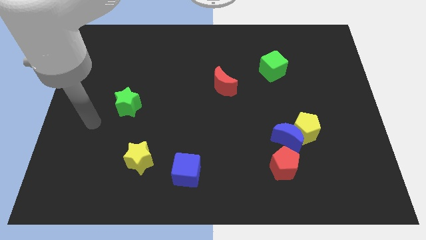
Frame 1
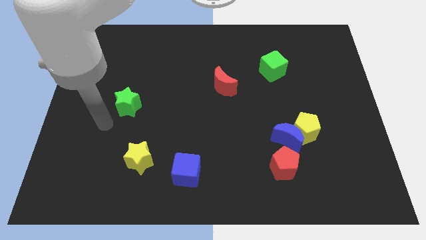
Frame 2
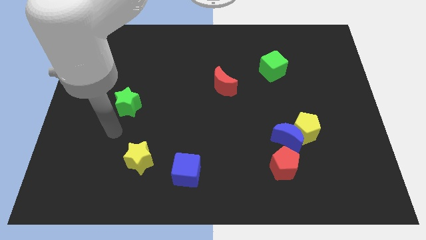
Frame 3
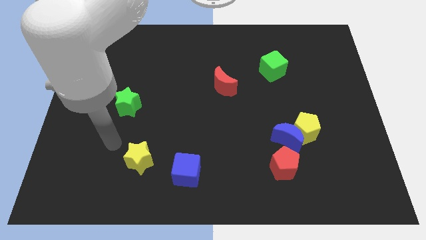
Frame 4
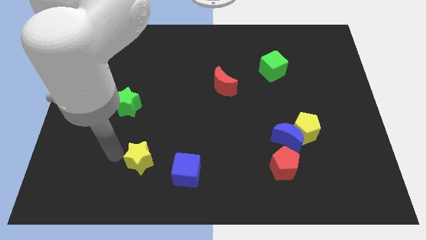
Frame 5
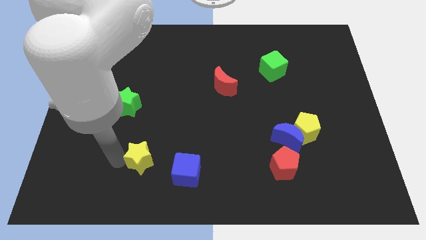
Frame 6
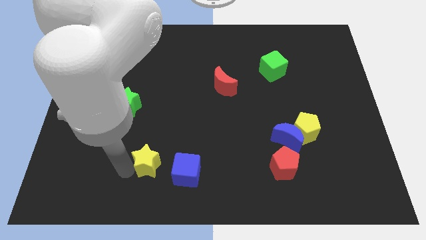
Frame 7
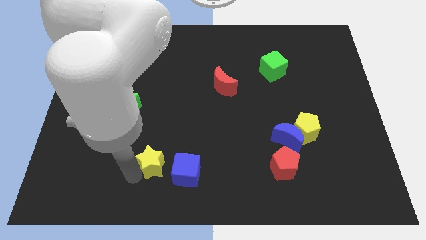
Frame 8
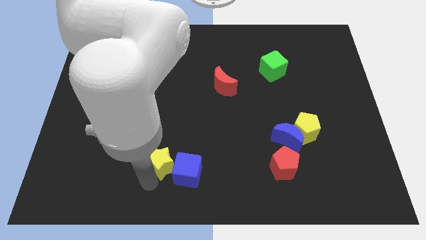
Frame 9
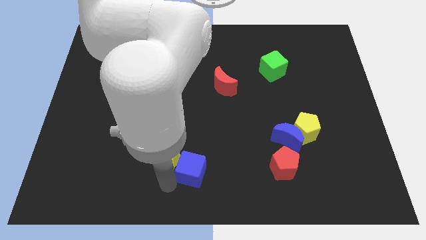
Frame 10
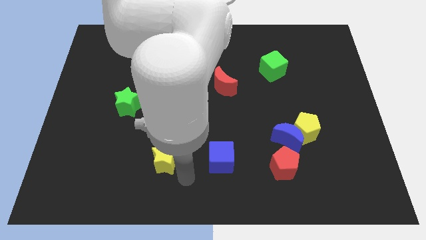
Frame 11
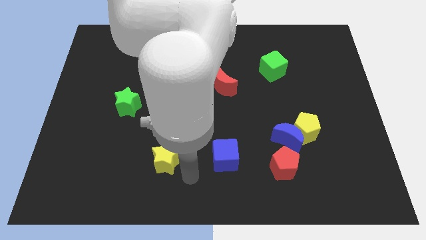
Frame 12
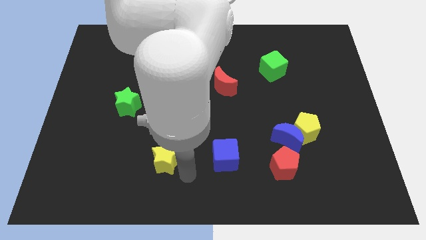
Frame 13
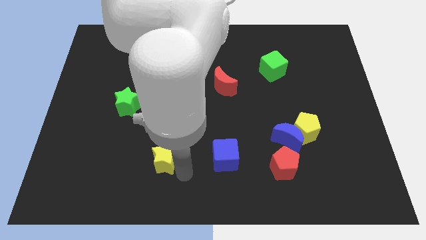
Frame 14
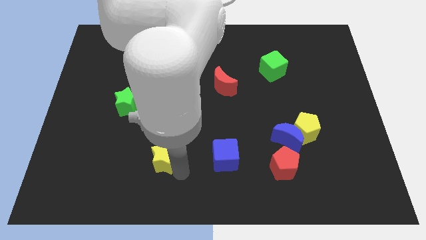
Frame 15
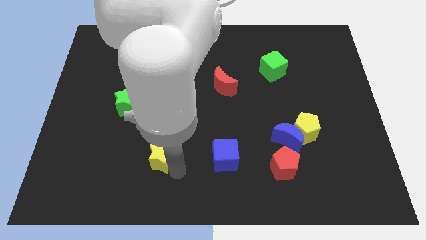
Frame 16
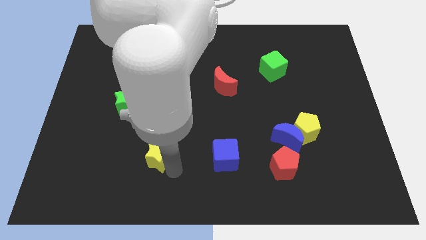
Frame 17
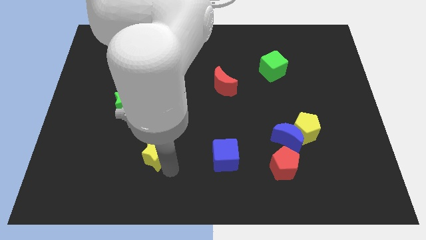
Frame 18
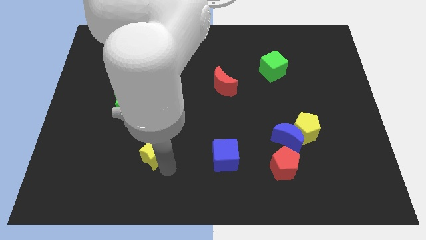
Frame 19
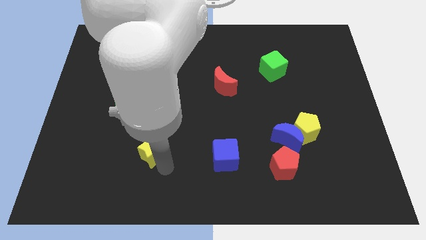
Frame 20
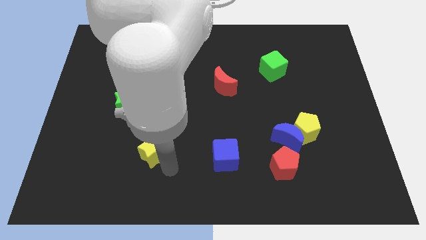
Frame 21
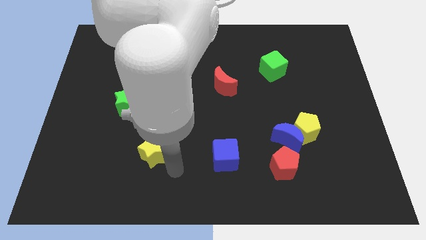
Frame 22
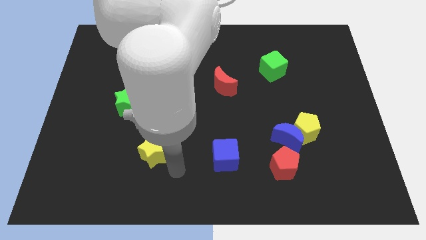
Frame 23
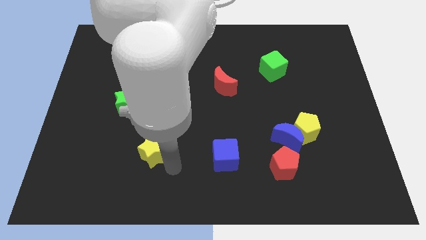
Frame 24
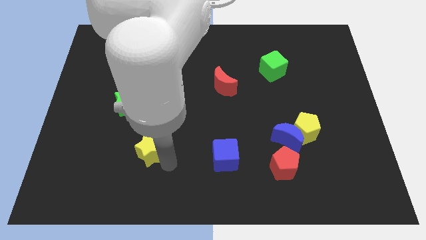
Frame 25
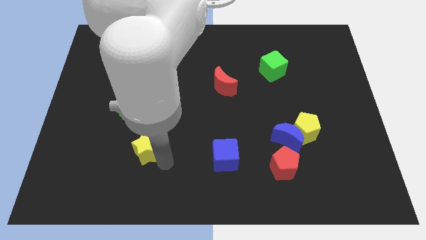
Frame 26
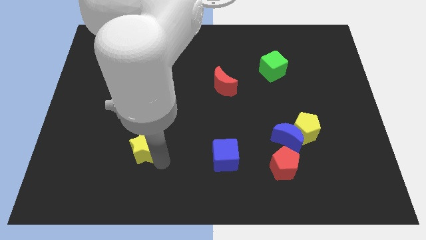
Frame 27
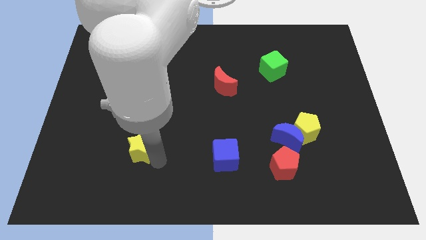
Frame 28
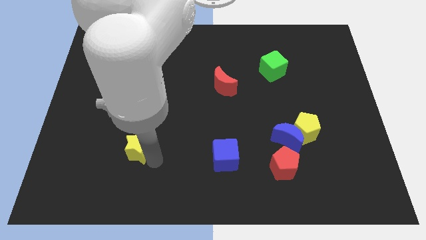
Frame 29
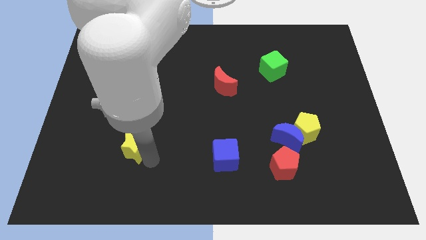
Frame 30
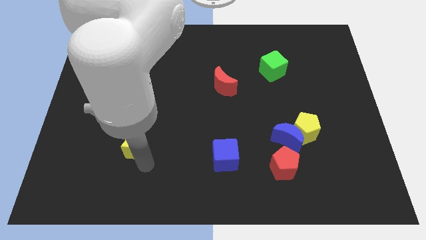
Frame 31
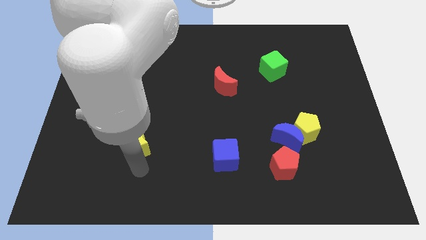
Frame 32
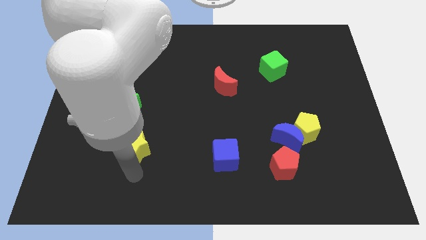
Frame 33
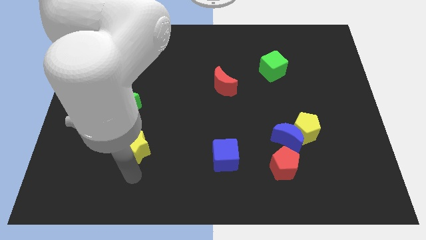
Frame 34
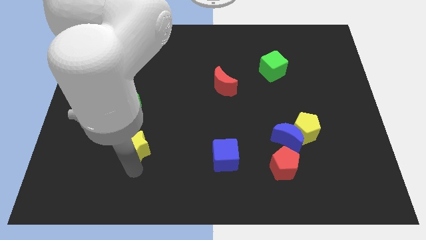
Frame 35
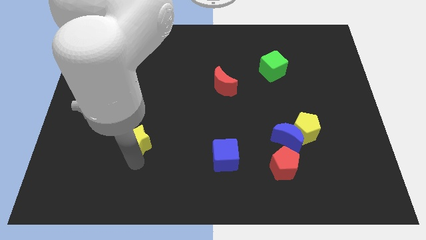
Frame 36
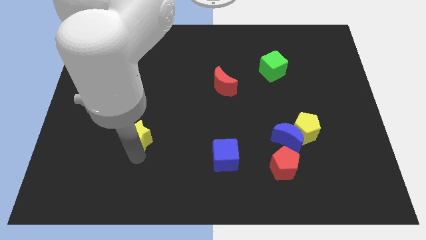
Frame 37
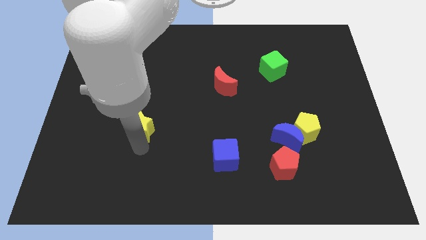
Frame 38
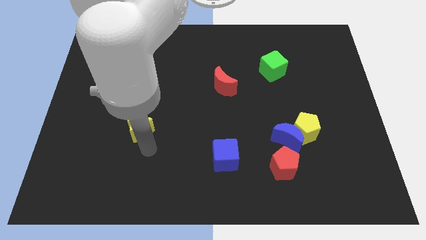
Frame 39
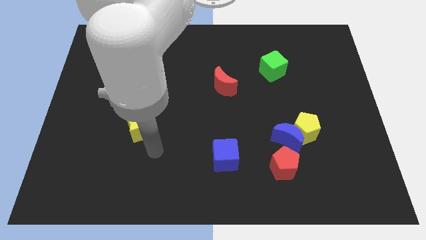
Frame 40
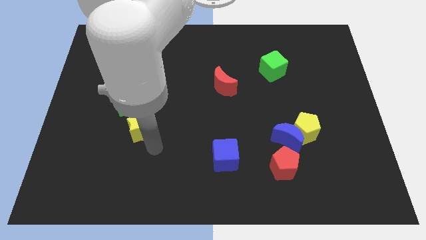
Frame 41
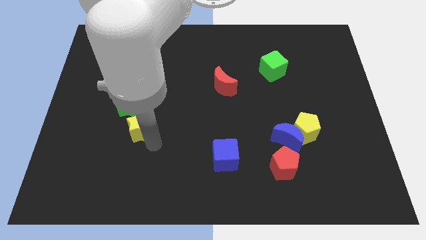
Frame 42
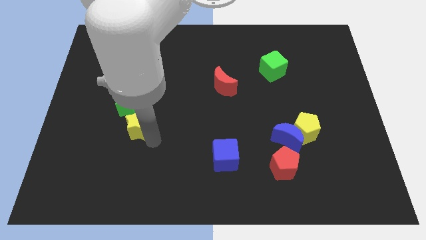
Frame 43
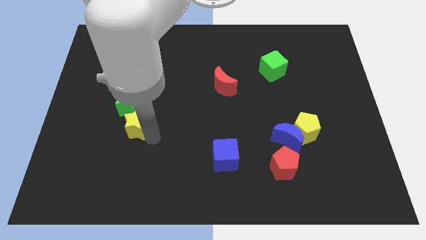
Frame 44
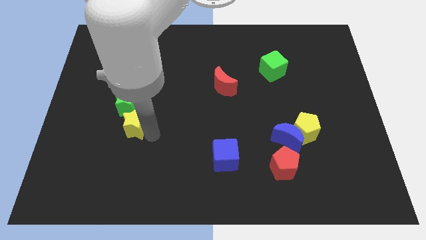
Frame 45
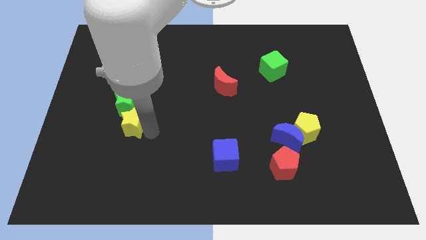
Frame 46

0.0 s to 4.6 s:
put the yellow star close to the green star

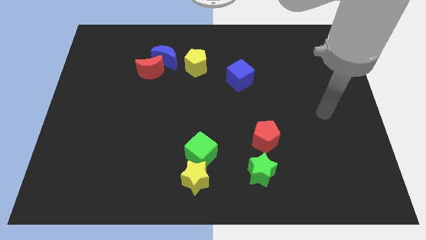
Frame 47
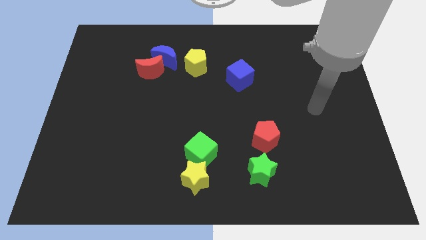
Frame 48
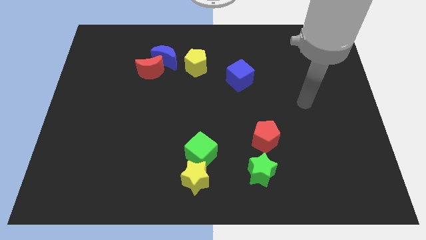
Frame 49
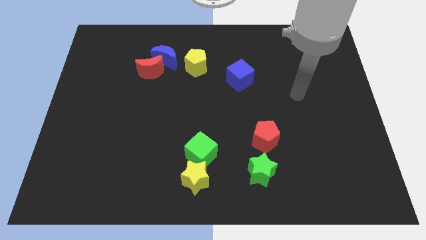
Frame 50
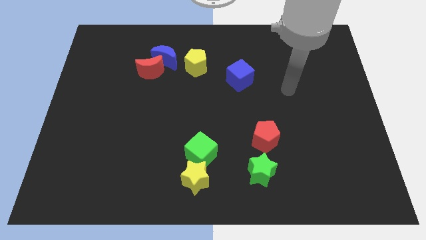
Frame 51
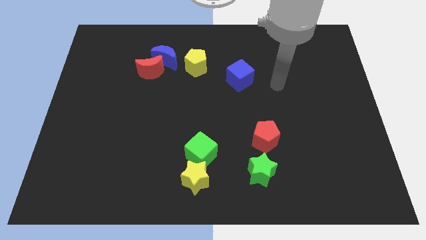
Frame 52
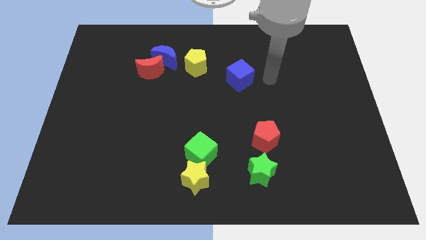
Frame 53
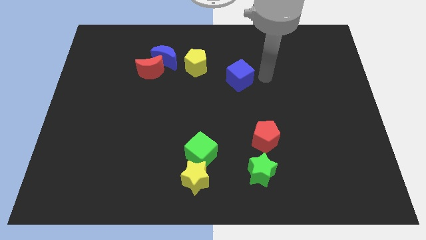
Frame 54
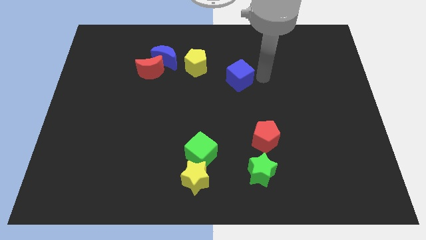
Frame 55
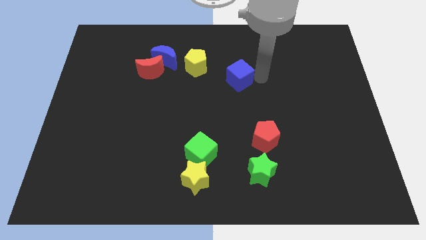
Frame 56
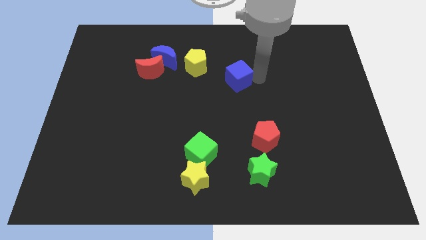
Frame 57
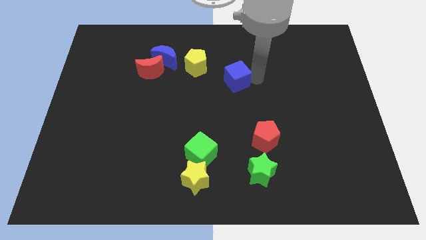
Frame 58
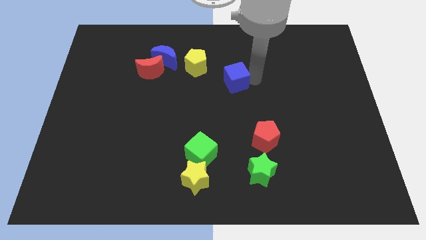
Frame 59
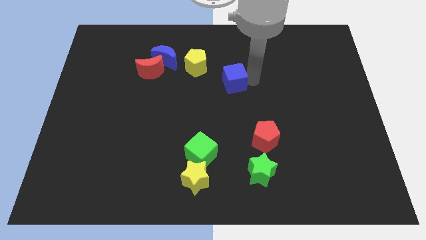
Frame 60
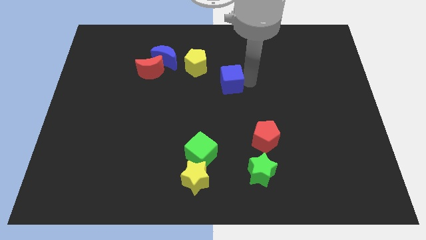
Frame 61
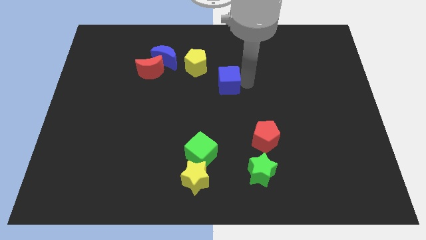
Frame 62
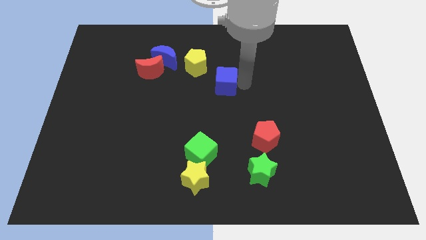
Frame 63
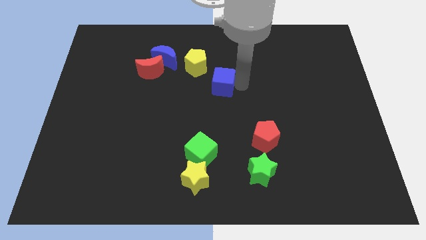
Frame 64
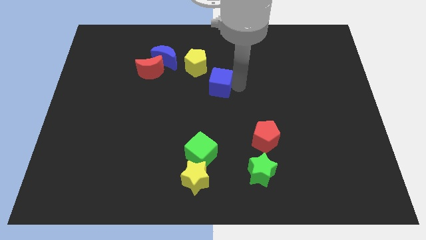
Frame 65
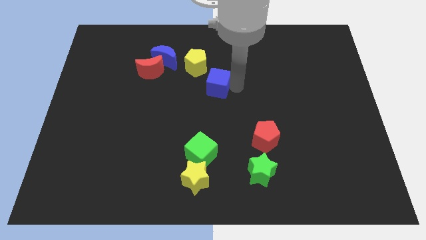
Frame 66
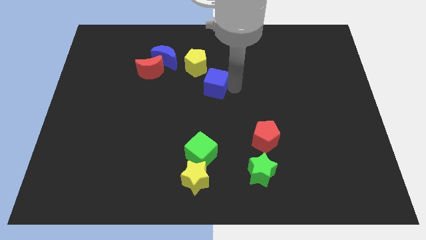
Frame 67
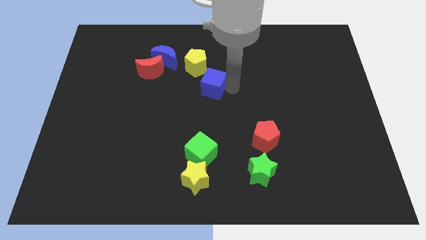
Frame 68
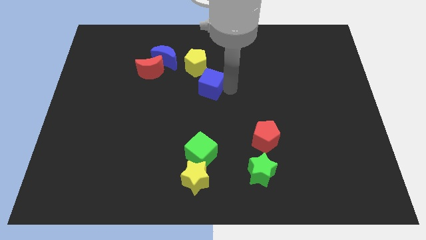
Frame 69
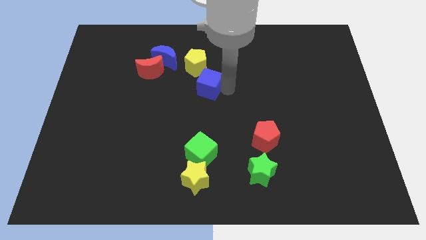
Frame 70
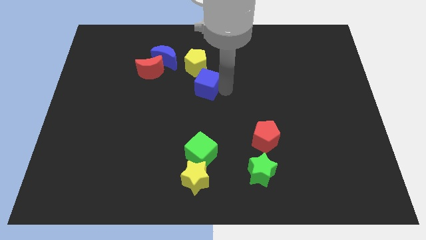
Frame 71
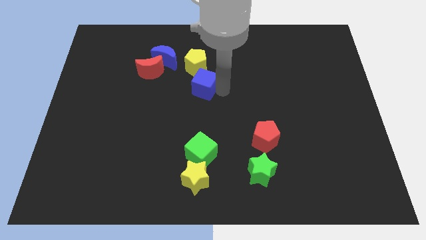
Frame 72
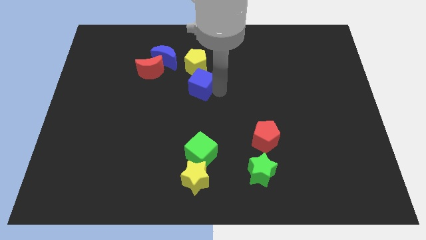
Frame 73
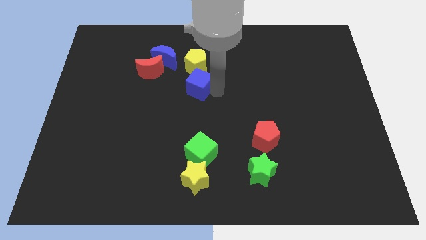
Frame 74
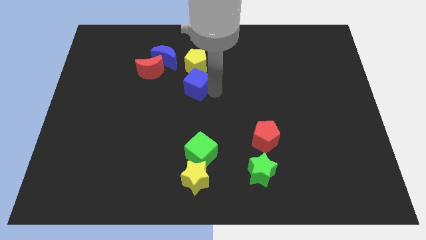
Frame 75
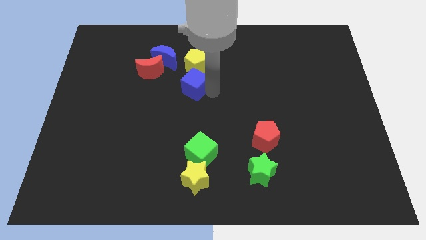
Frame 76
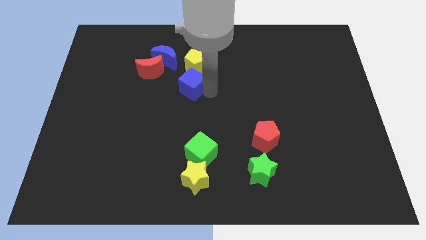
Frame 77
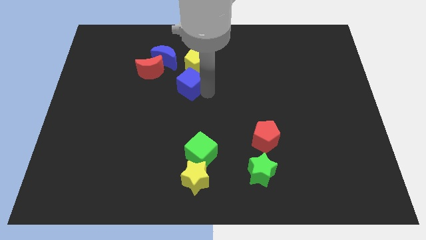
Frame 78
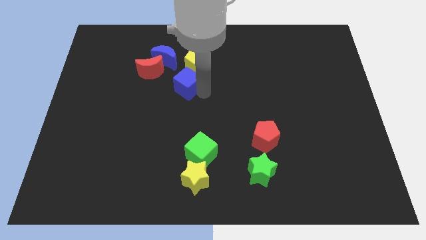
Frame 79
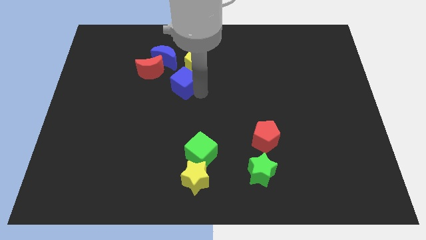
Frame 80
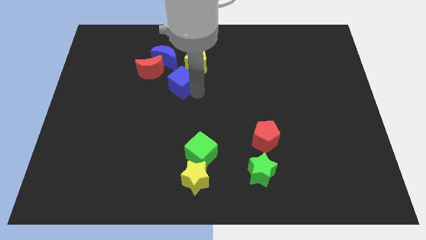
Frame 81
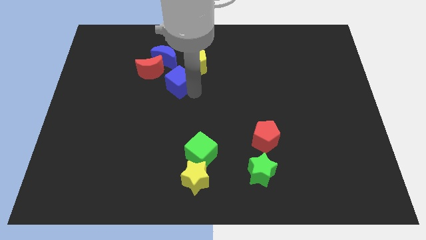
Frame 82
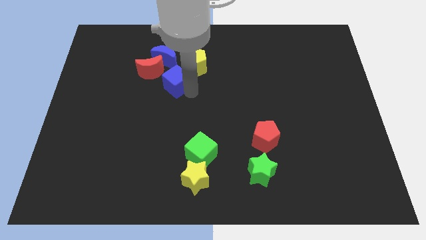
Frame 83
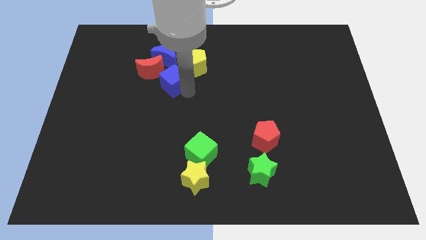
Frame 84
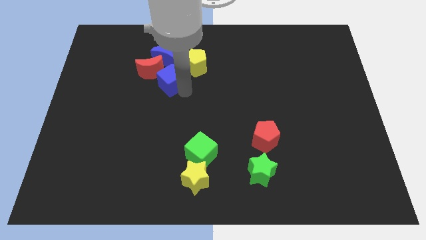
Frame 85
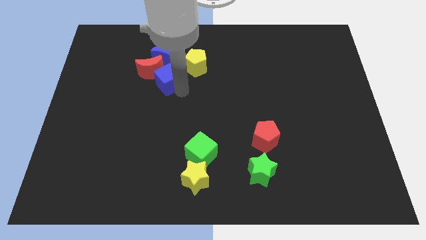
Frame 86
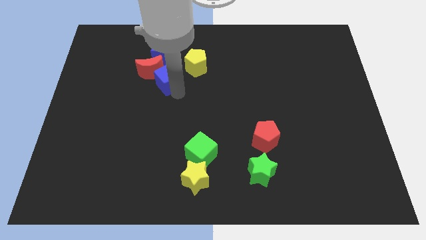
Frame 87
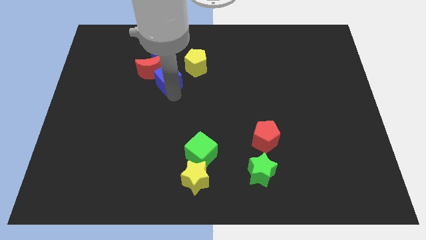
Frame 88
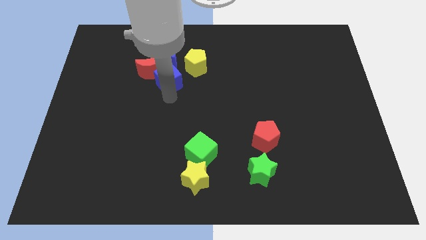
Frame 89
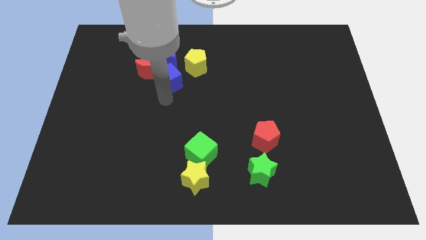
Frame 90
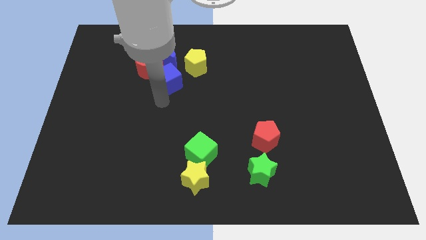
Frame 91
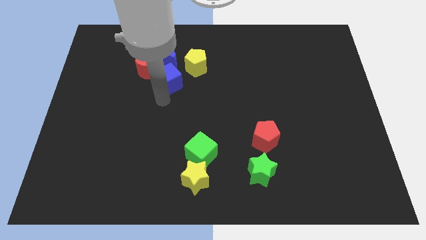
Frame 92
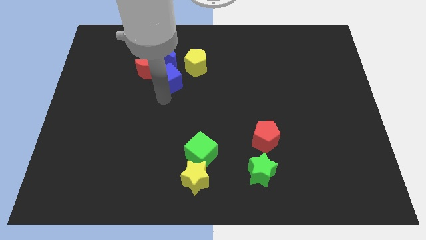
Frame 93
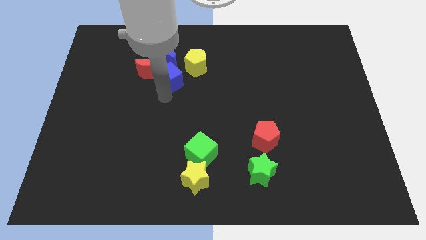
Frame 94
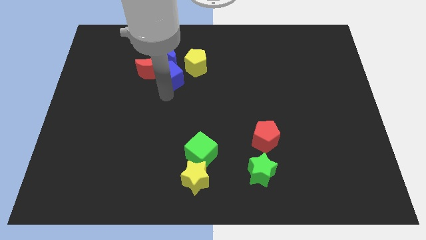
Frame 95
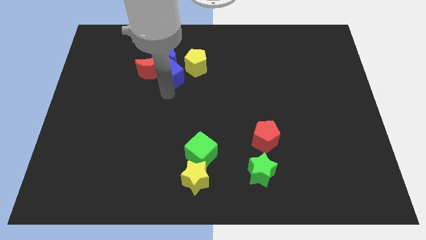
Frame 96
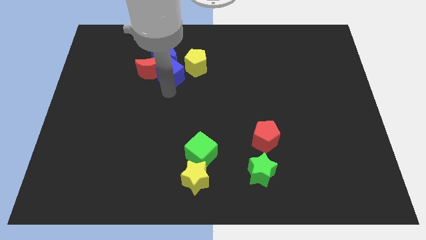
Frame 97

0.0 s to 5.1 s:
push the blue cube close to the blue moon
